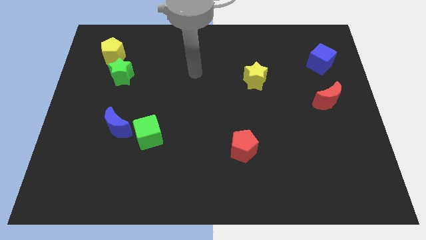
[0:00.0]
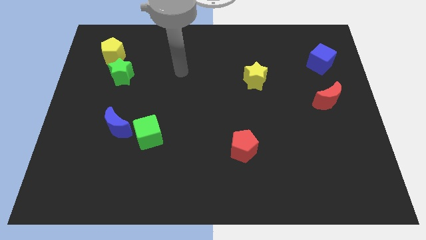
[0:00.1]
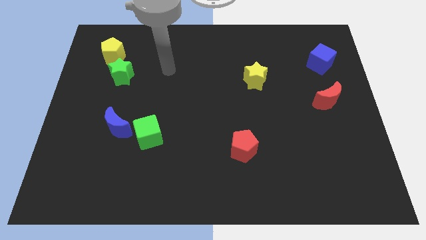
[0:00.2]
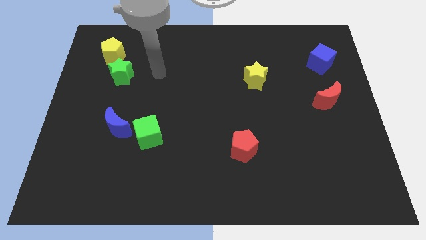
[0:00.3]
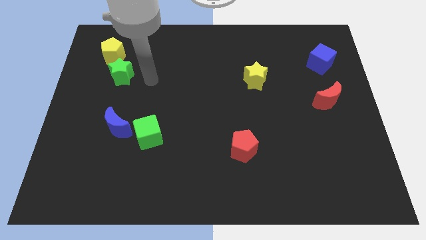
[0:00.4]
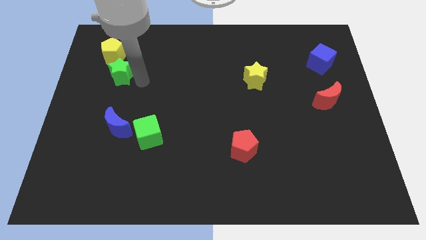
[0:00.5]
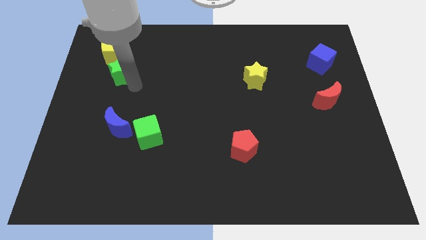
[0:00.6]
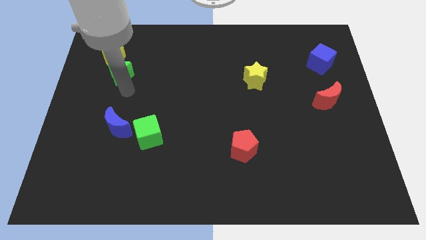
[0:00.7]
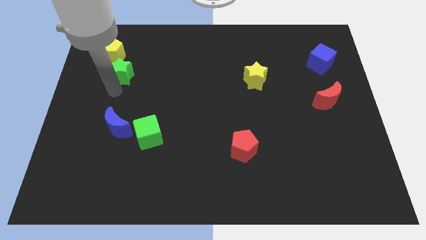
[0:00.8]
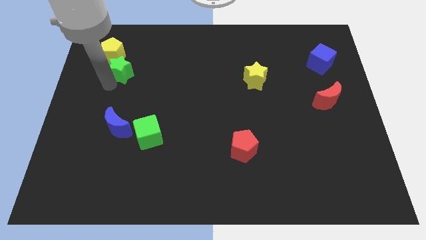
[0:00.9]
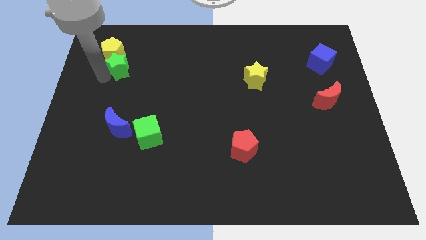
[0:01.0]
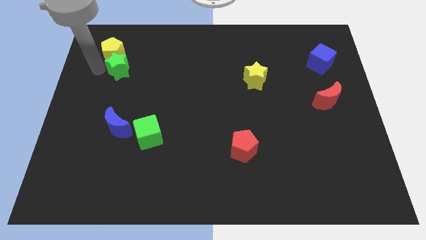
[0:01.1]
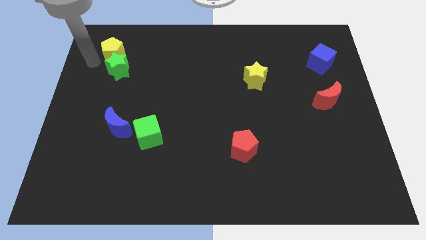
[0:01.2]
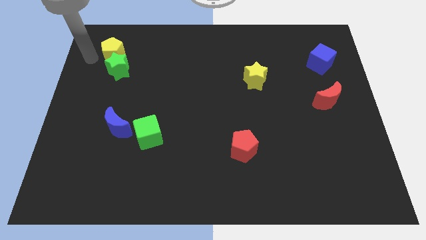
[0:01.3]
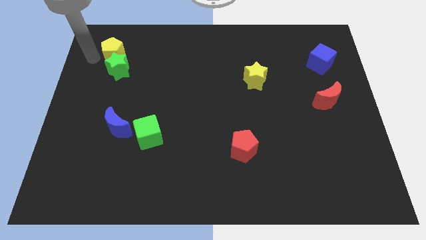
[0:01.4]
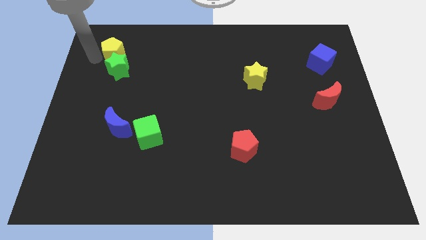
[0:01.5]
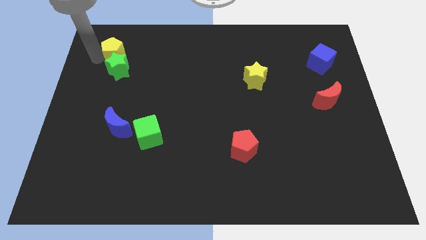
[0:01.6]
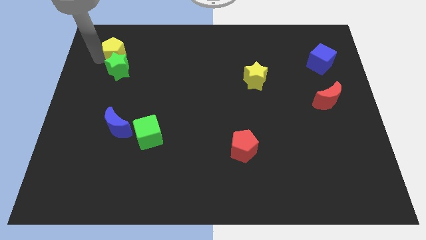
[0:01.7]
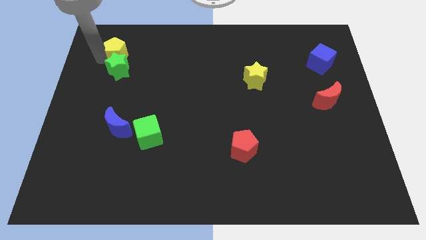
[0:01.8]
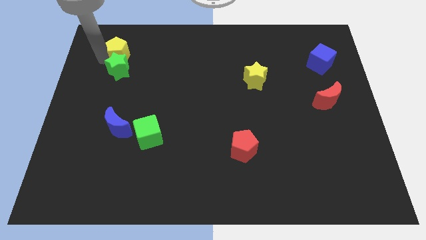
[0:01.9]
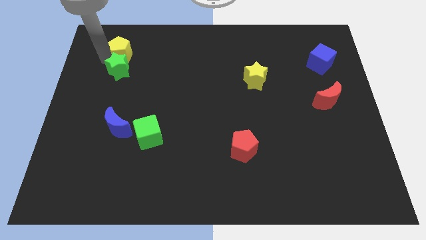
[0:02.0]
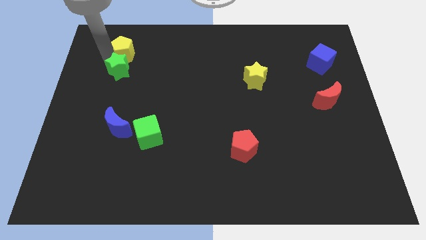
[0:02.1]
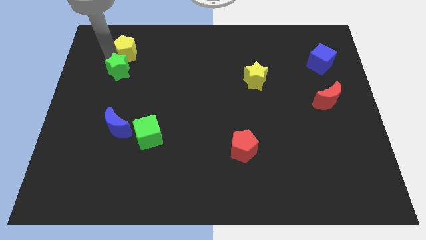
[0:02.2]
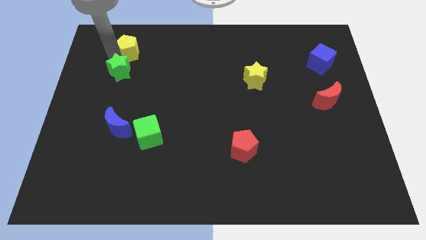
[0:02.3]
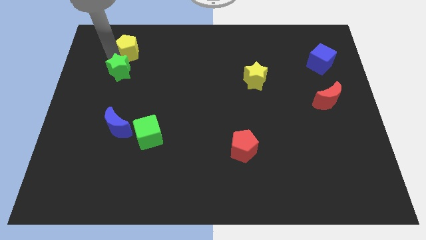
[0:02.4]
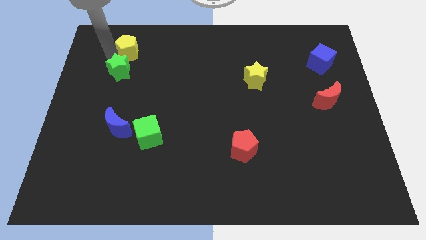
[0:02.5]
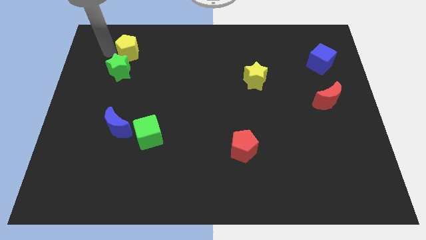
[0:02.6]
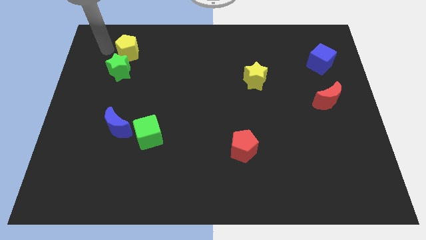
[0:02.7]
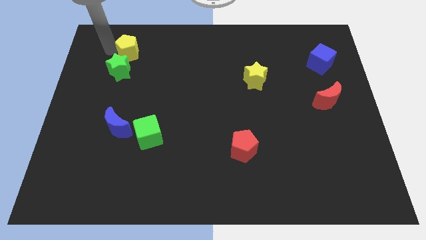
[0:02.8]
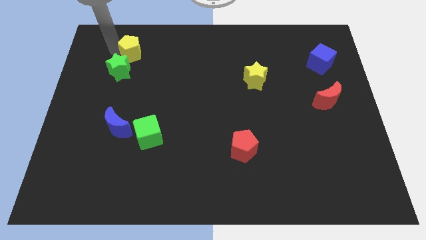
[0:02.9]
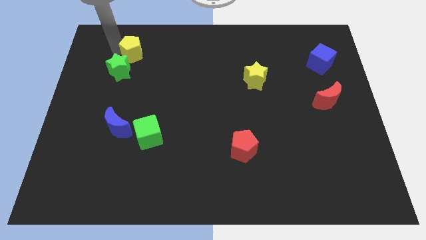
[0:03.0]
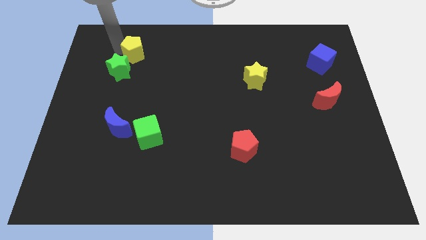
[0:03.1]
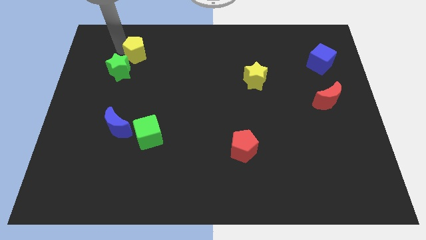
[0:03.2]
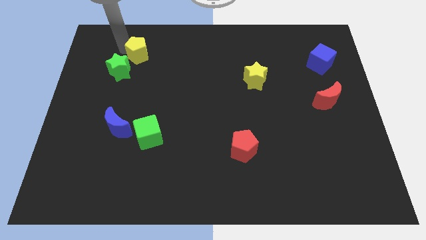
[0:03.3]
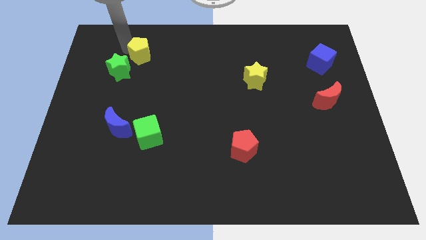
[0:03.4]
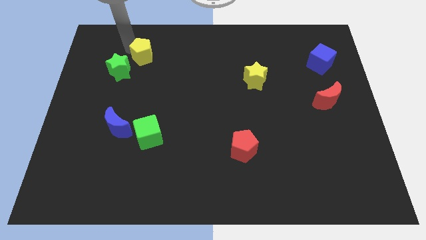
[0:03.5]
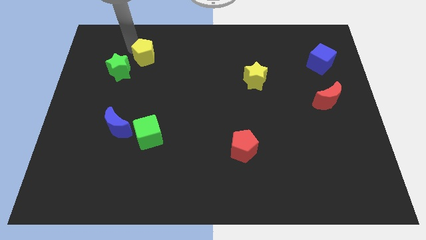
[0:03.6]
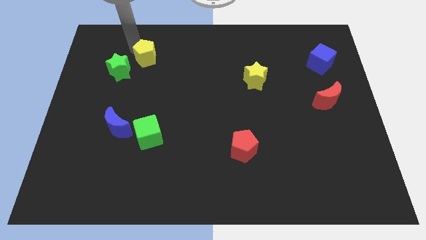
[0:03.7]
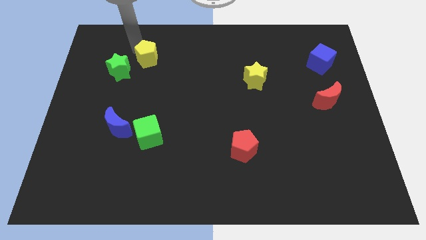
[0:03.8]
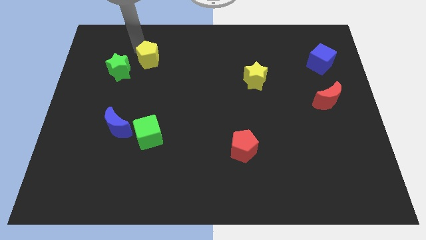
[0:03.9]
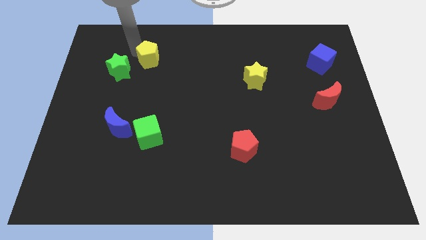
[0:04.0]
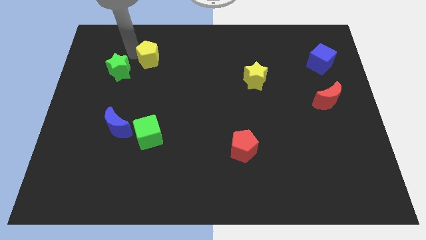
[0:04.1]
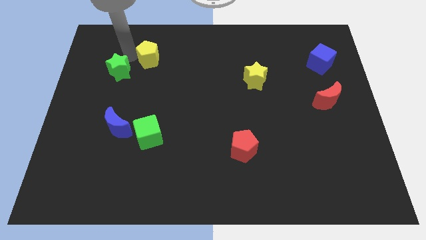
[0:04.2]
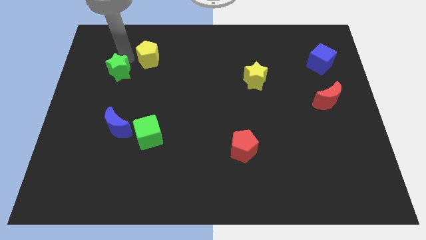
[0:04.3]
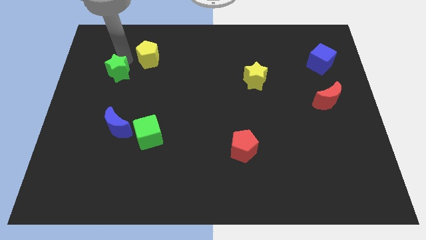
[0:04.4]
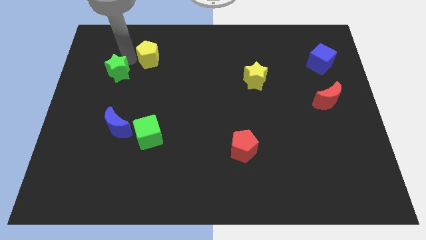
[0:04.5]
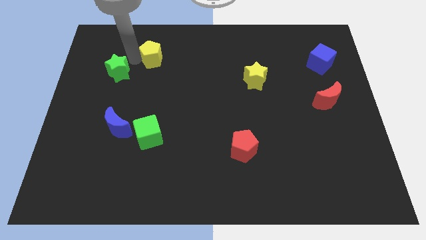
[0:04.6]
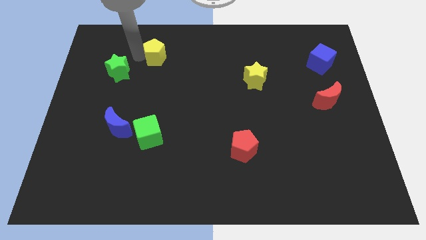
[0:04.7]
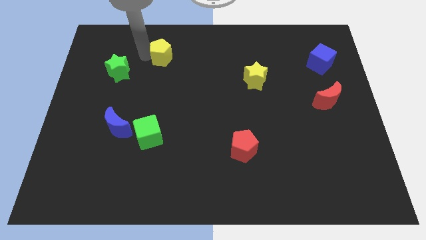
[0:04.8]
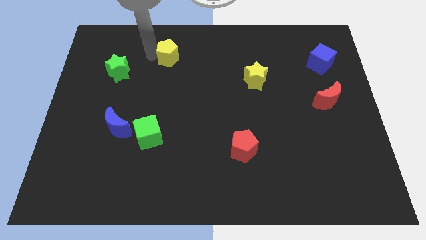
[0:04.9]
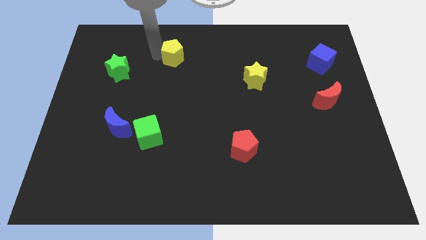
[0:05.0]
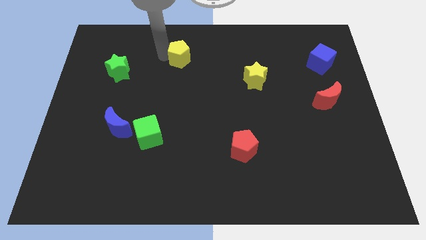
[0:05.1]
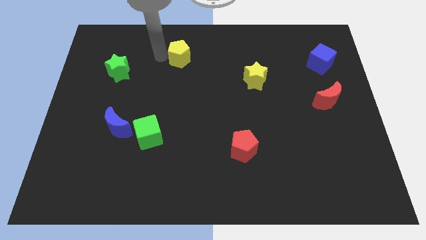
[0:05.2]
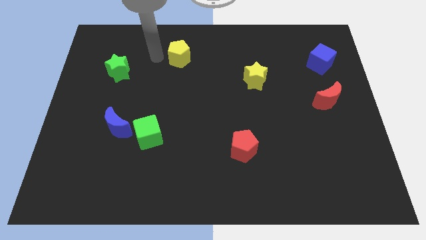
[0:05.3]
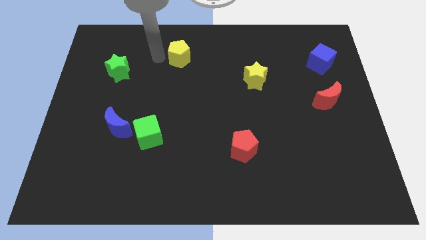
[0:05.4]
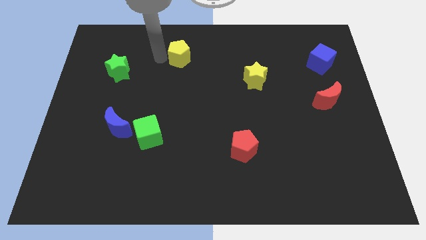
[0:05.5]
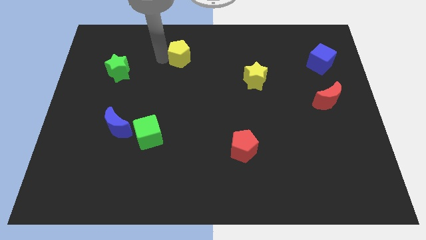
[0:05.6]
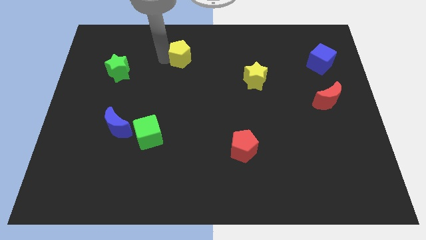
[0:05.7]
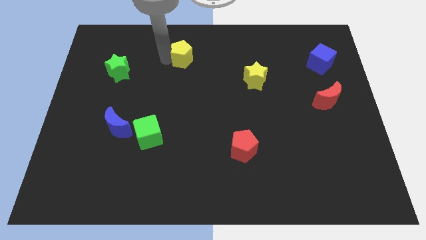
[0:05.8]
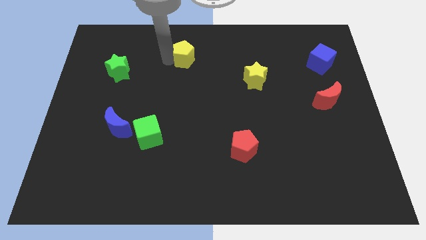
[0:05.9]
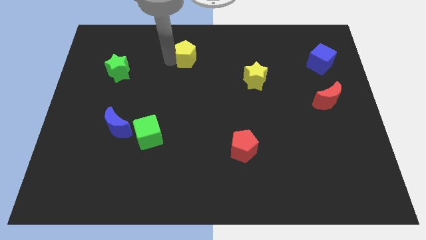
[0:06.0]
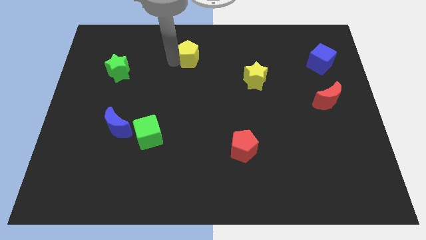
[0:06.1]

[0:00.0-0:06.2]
push the yellow pentagon right

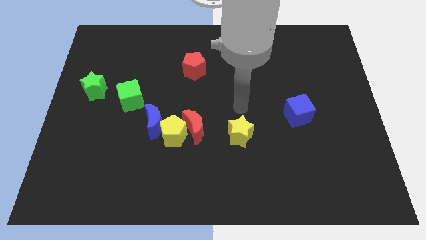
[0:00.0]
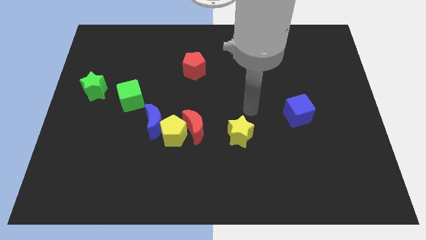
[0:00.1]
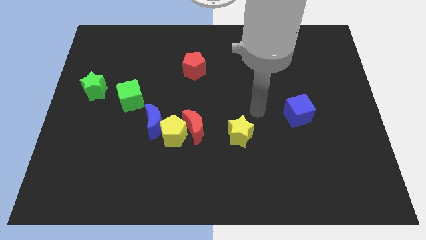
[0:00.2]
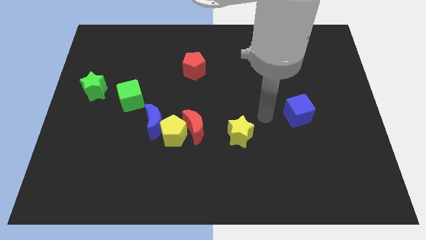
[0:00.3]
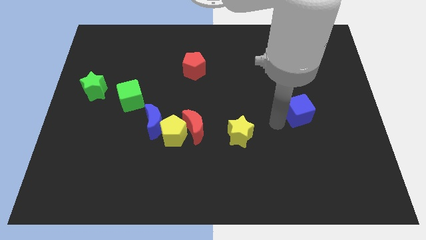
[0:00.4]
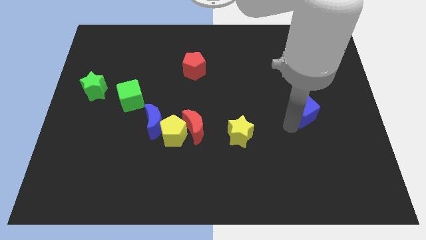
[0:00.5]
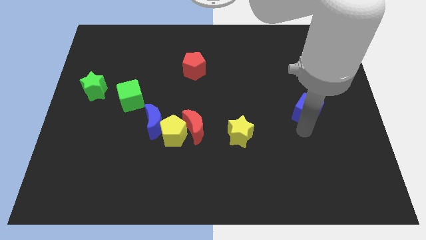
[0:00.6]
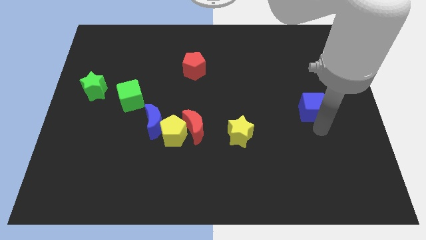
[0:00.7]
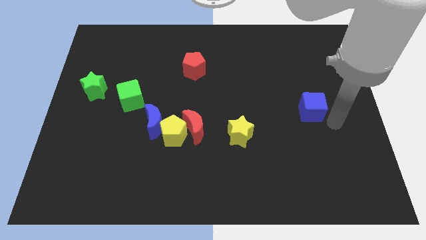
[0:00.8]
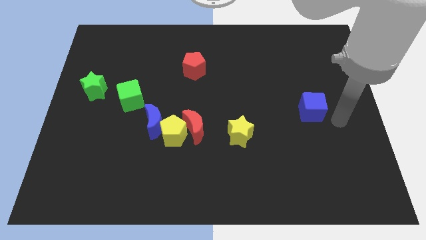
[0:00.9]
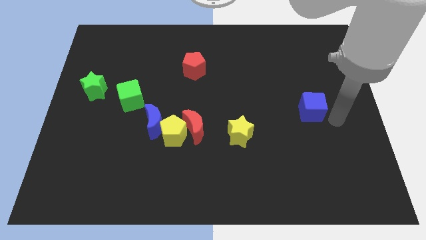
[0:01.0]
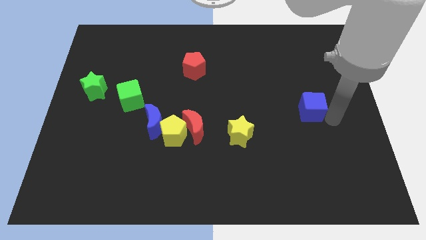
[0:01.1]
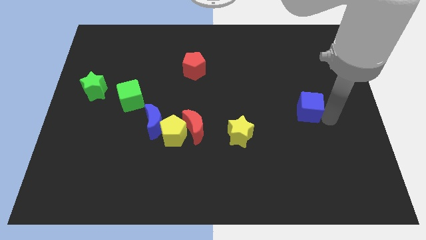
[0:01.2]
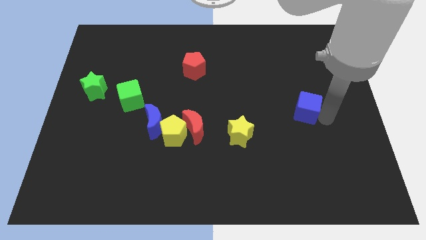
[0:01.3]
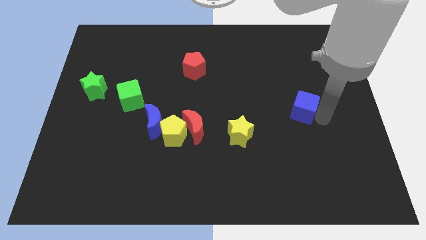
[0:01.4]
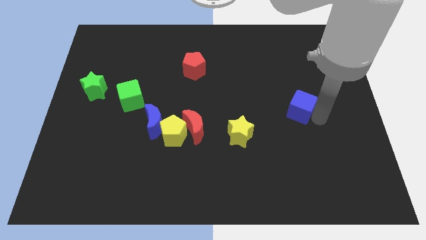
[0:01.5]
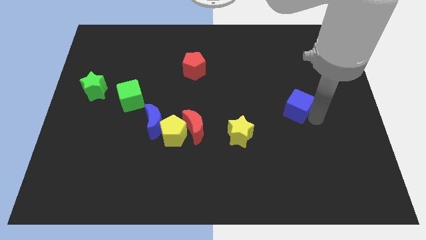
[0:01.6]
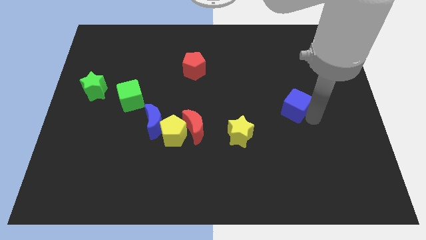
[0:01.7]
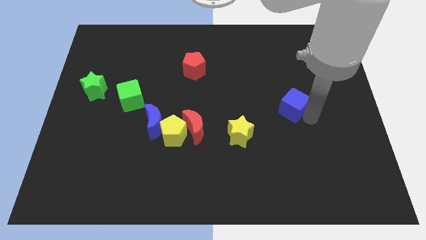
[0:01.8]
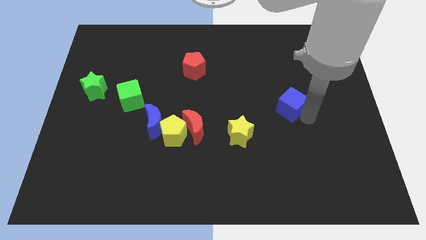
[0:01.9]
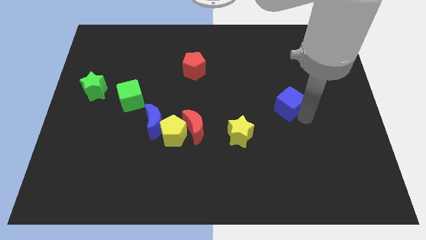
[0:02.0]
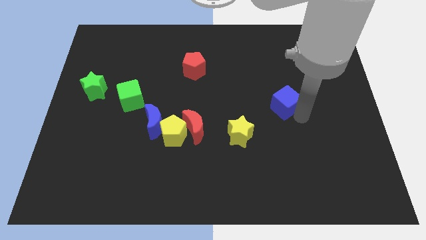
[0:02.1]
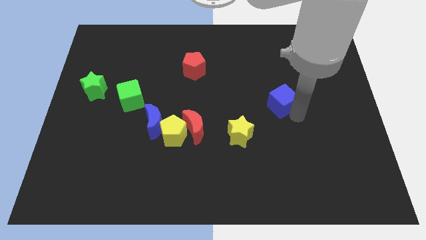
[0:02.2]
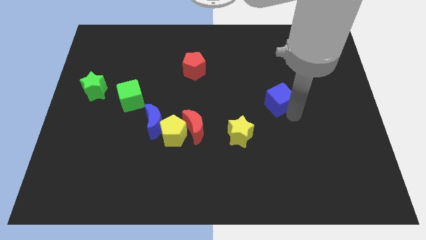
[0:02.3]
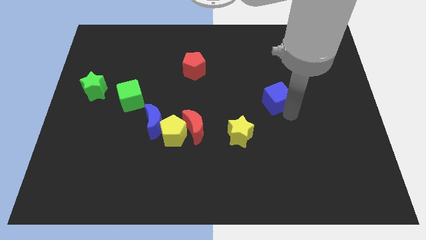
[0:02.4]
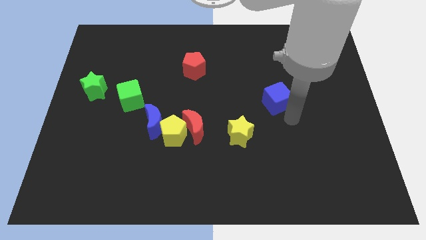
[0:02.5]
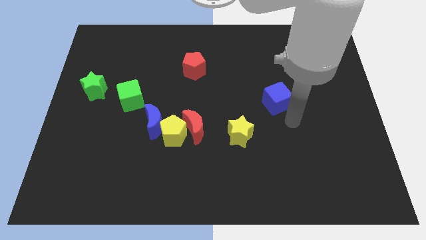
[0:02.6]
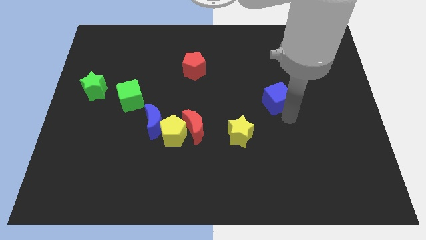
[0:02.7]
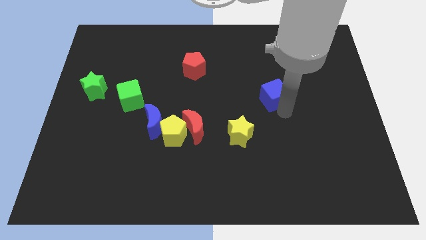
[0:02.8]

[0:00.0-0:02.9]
slide the blue cube up and to the left diagonally slightly
